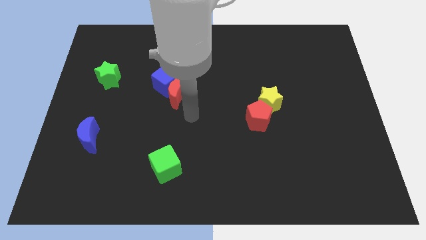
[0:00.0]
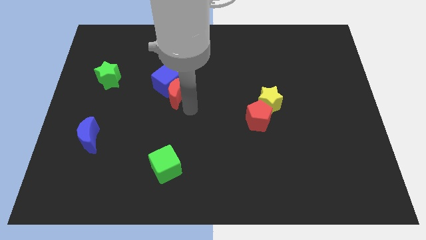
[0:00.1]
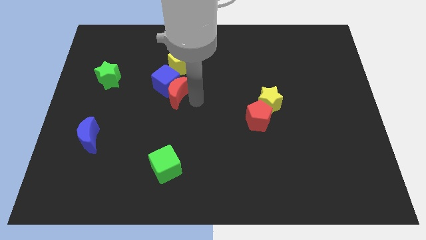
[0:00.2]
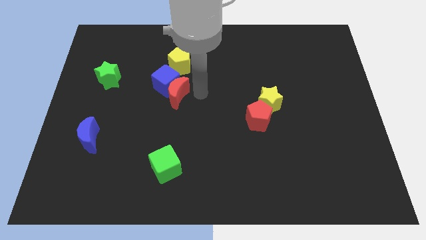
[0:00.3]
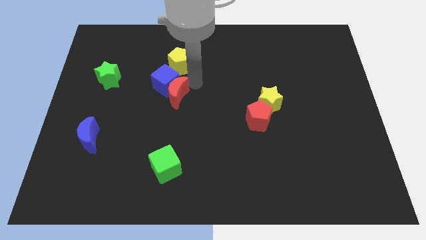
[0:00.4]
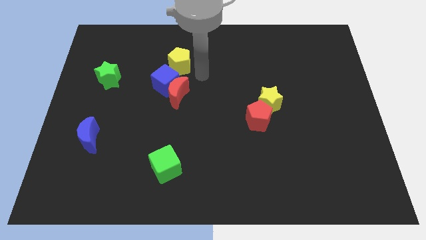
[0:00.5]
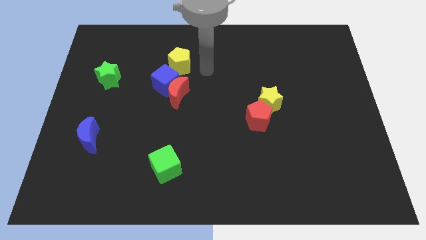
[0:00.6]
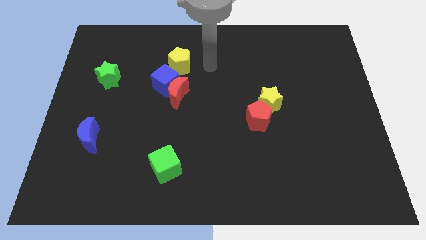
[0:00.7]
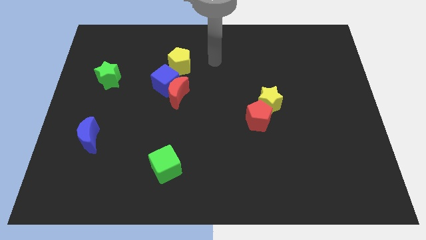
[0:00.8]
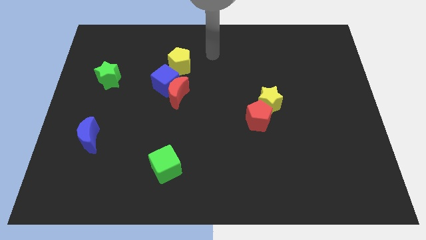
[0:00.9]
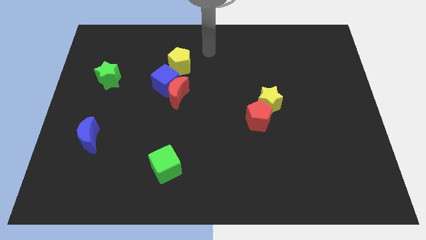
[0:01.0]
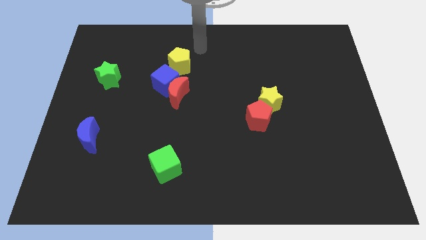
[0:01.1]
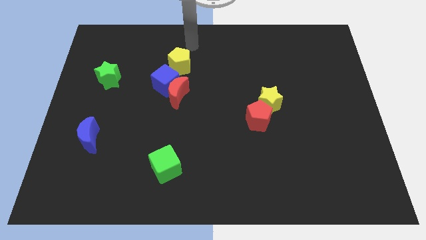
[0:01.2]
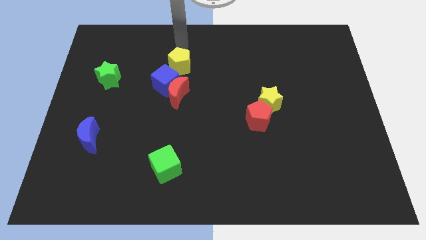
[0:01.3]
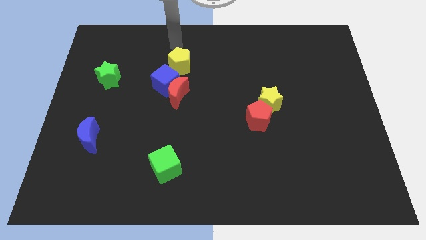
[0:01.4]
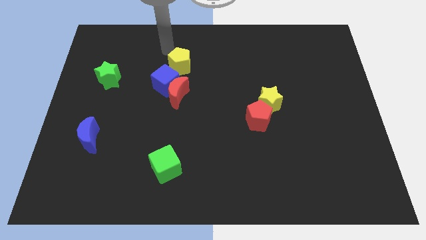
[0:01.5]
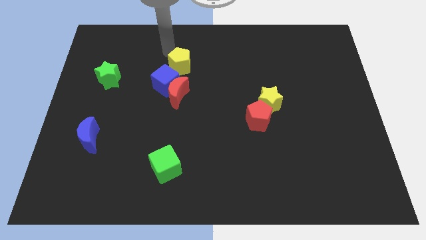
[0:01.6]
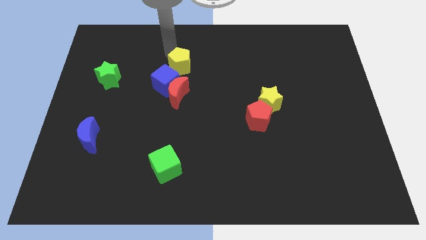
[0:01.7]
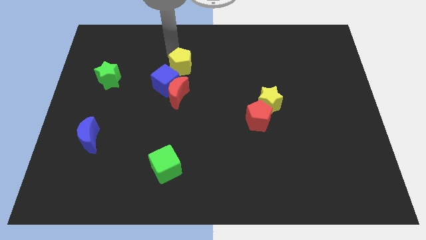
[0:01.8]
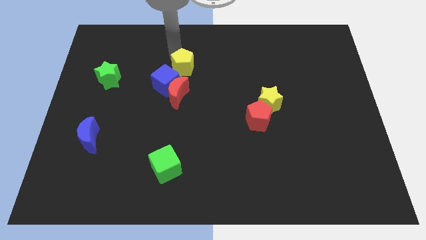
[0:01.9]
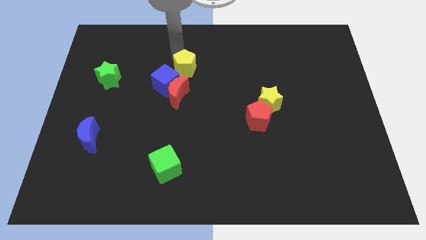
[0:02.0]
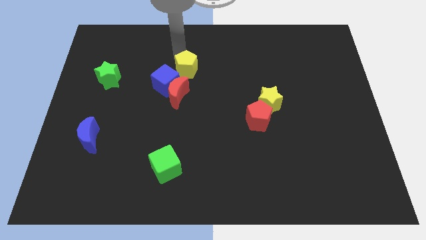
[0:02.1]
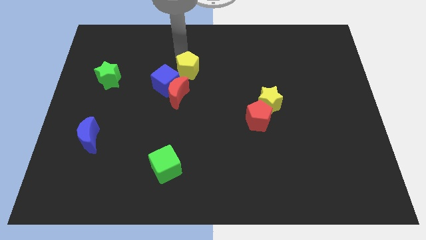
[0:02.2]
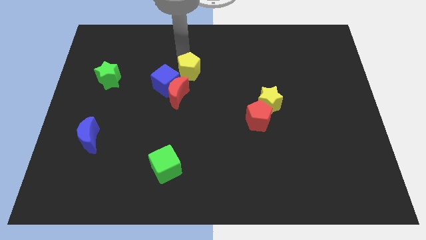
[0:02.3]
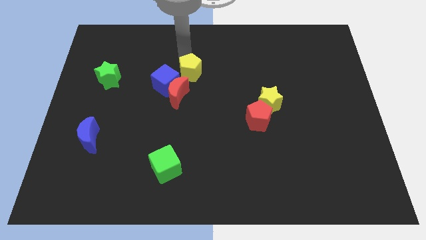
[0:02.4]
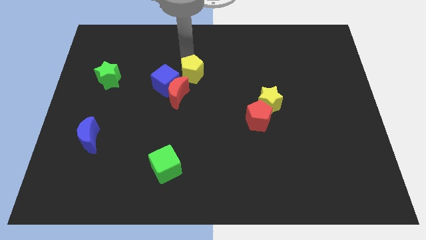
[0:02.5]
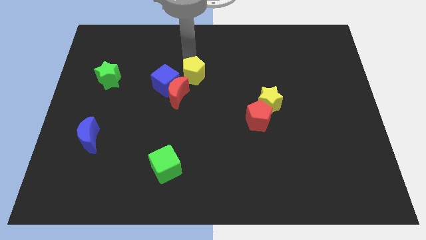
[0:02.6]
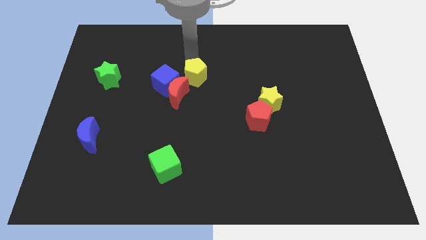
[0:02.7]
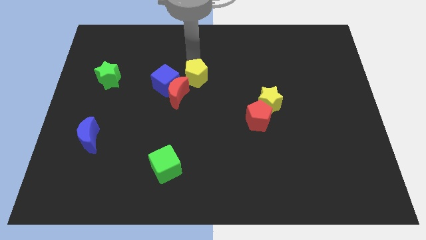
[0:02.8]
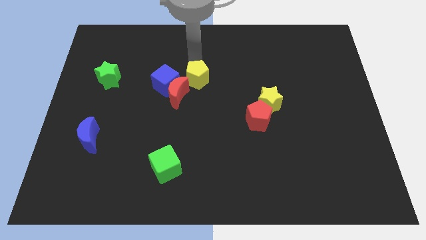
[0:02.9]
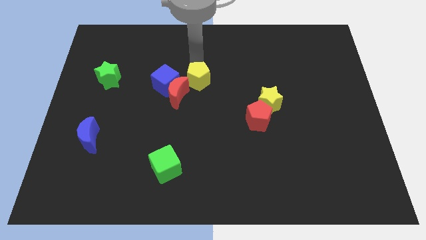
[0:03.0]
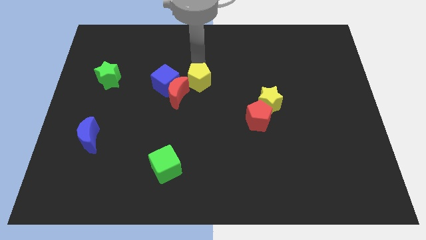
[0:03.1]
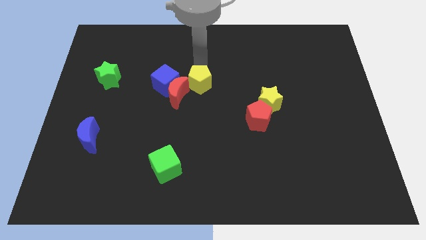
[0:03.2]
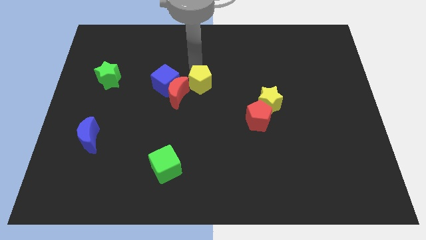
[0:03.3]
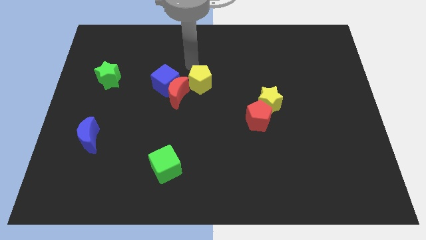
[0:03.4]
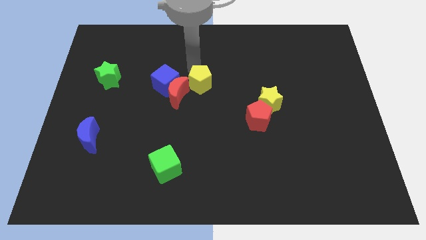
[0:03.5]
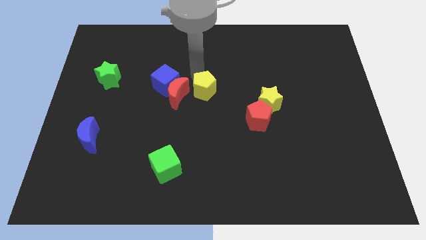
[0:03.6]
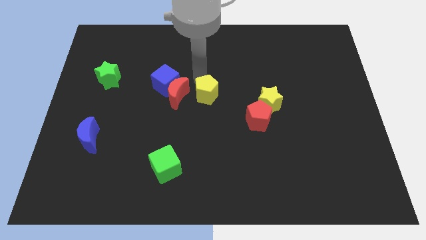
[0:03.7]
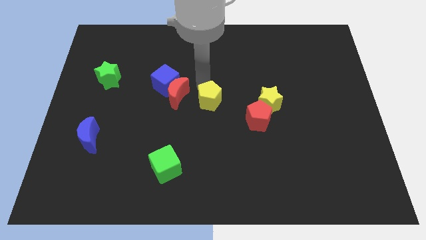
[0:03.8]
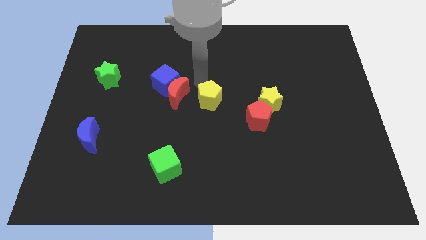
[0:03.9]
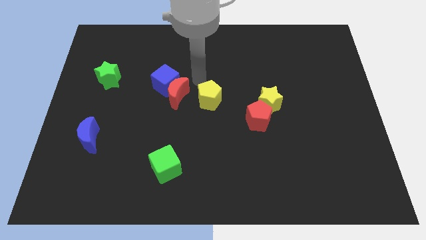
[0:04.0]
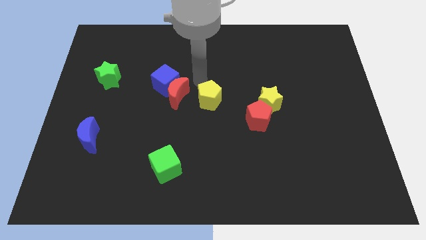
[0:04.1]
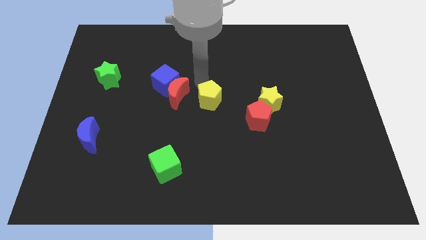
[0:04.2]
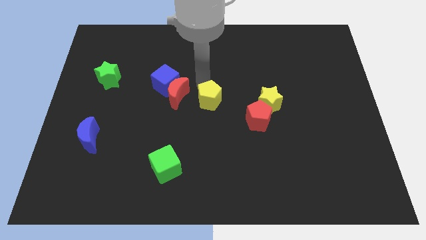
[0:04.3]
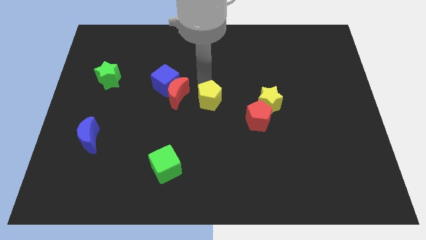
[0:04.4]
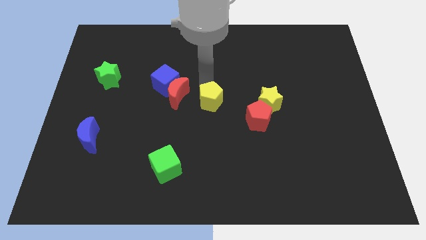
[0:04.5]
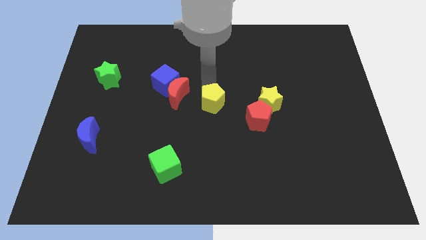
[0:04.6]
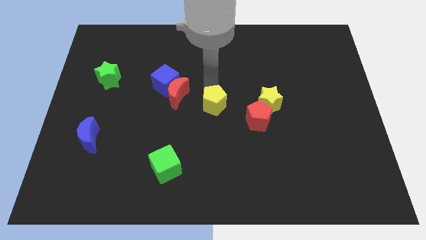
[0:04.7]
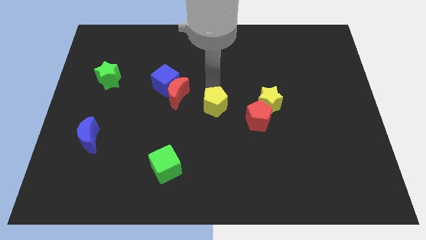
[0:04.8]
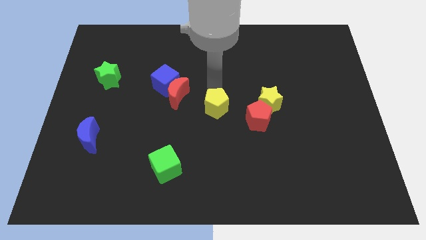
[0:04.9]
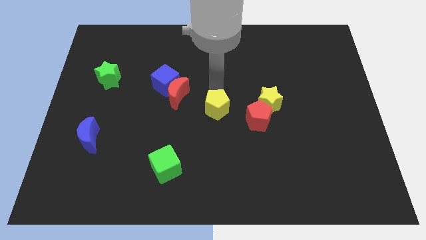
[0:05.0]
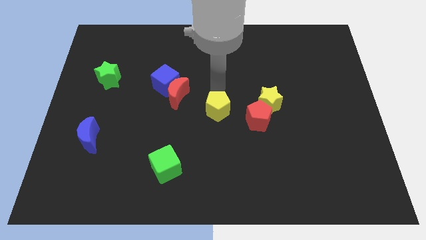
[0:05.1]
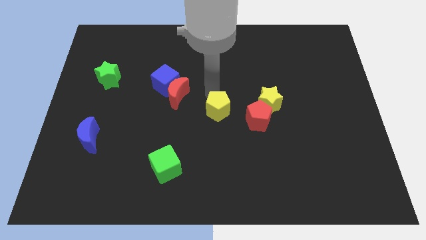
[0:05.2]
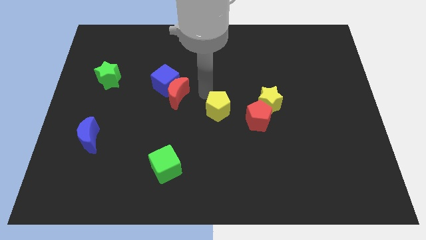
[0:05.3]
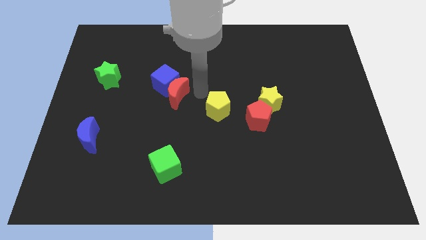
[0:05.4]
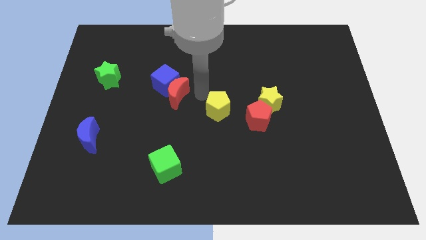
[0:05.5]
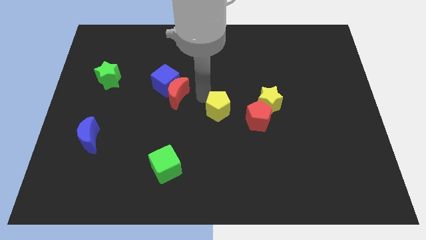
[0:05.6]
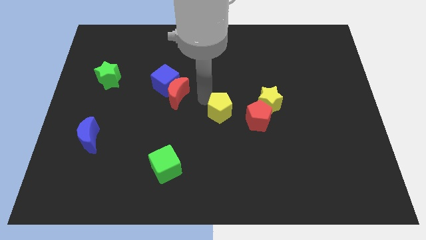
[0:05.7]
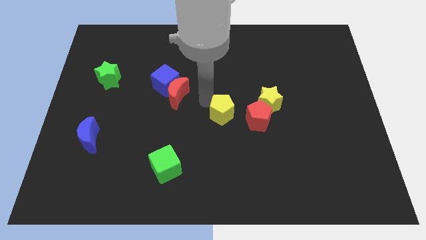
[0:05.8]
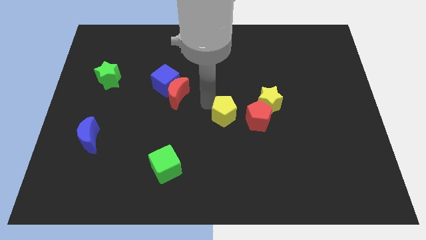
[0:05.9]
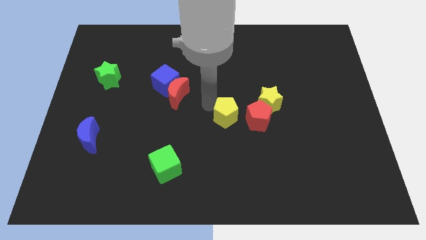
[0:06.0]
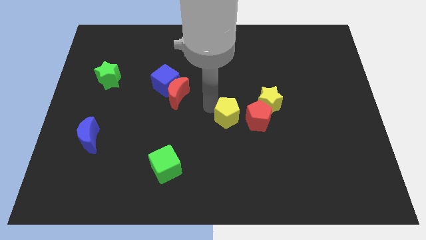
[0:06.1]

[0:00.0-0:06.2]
push the yellow pentagon diagonally downwards and right

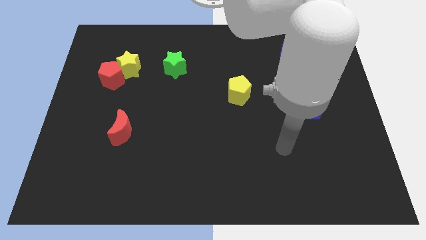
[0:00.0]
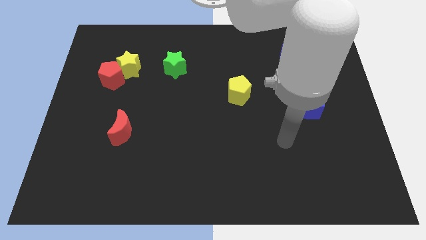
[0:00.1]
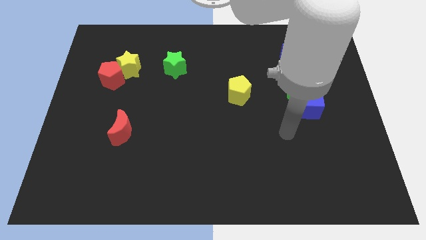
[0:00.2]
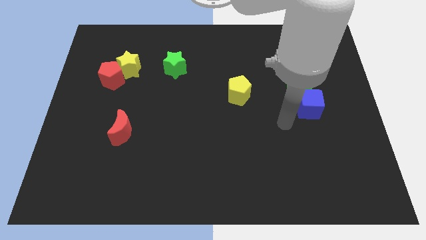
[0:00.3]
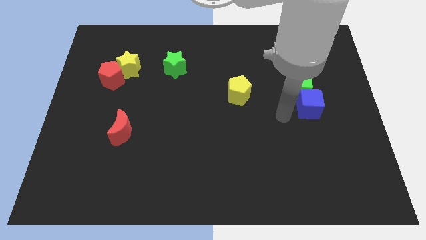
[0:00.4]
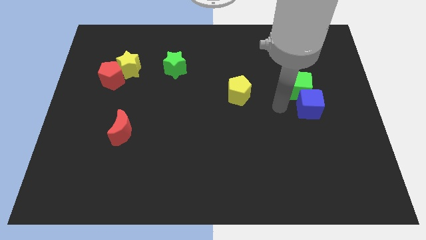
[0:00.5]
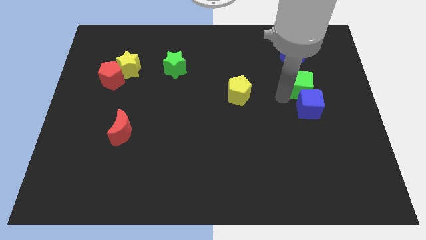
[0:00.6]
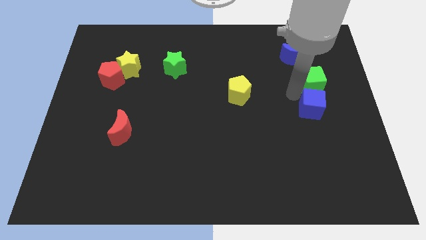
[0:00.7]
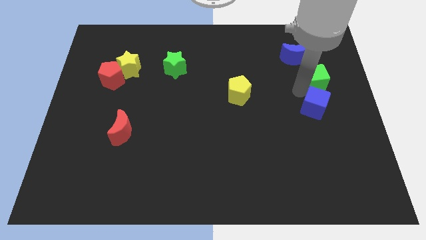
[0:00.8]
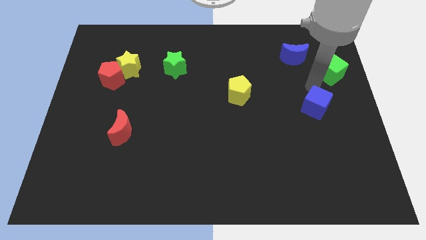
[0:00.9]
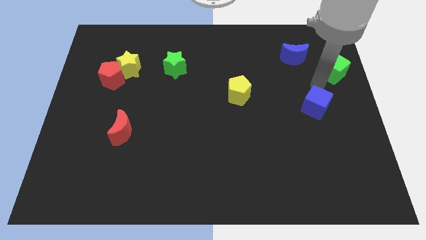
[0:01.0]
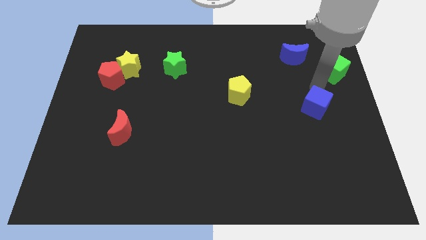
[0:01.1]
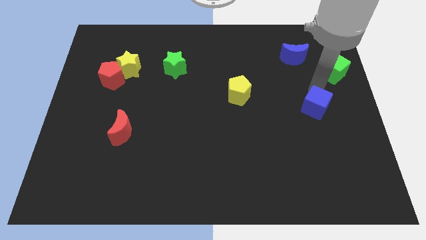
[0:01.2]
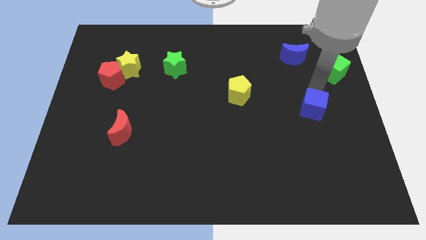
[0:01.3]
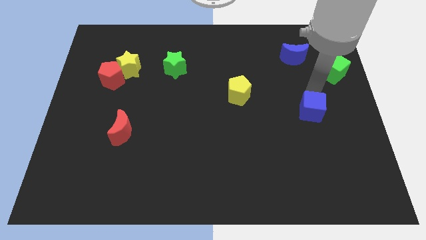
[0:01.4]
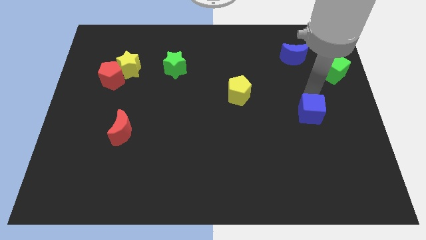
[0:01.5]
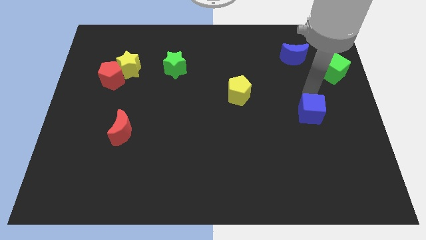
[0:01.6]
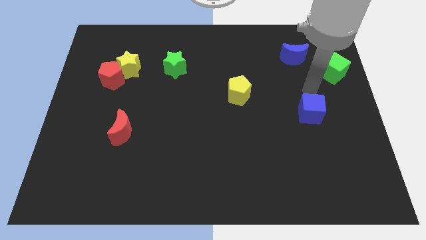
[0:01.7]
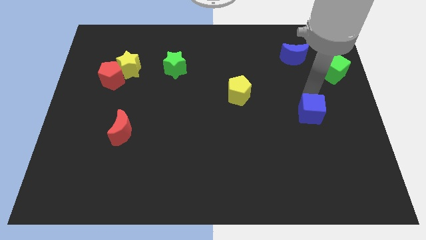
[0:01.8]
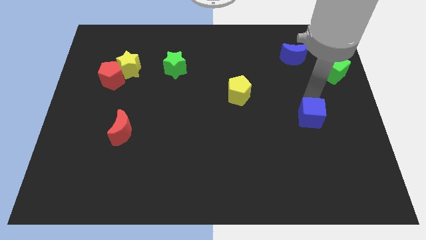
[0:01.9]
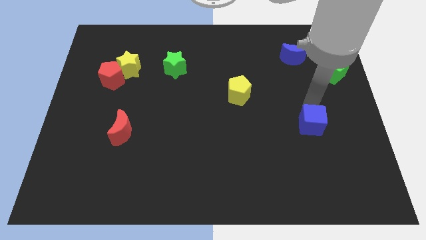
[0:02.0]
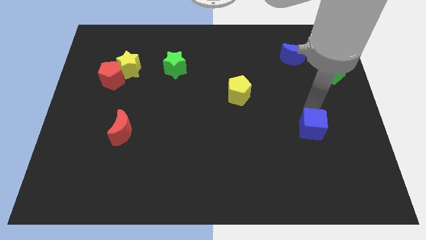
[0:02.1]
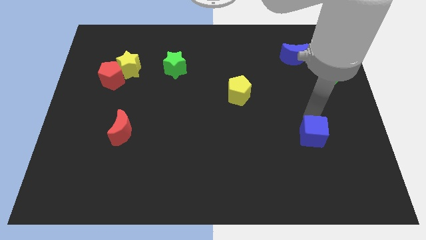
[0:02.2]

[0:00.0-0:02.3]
slightly move the blue cube downwards
